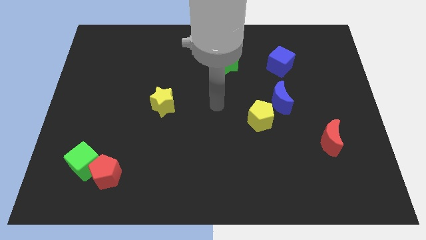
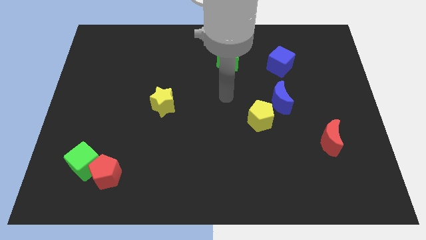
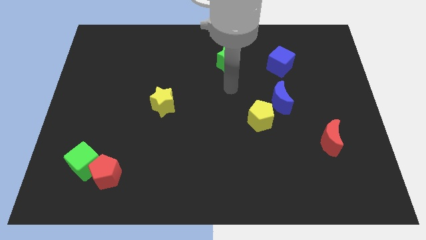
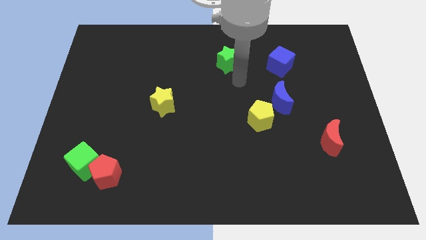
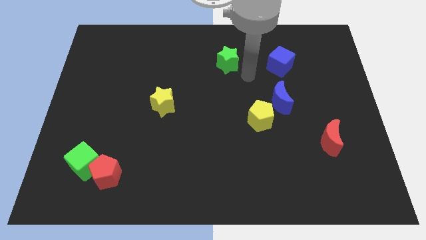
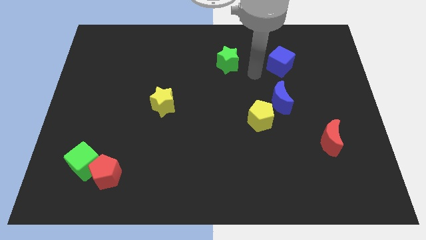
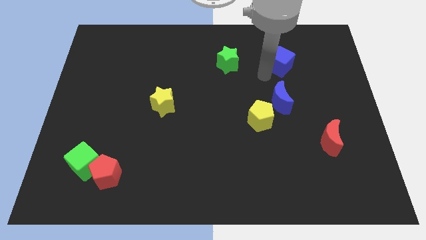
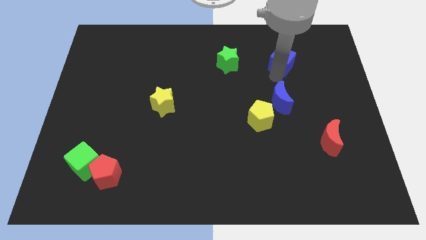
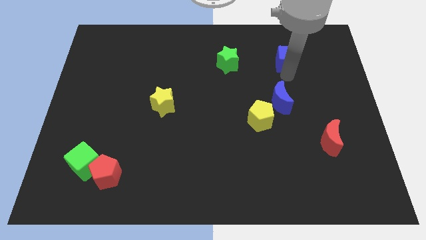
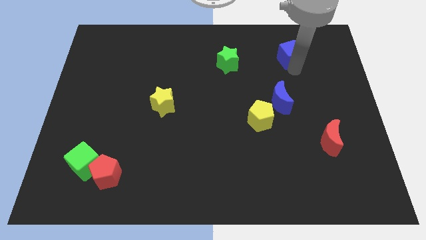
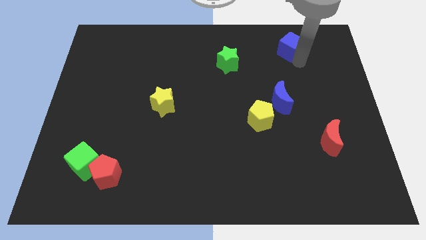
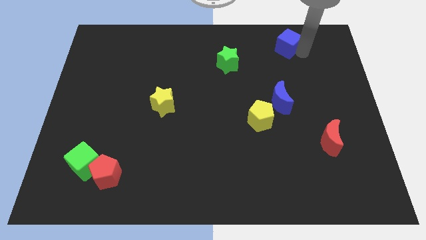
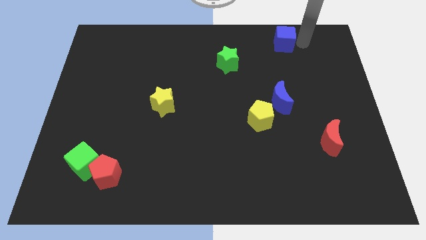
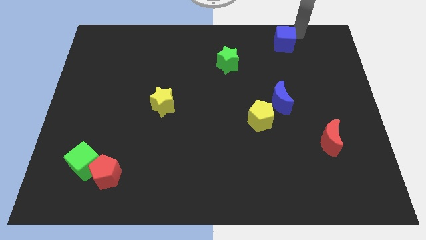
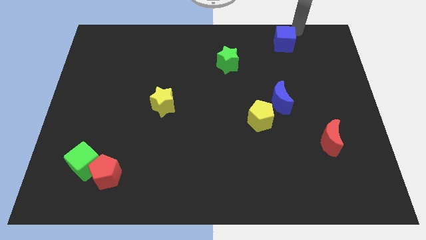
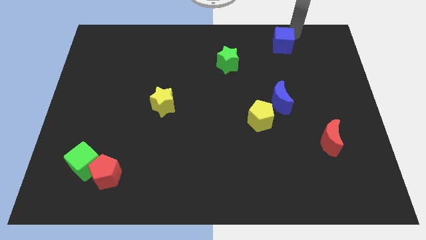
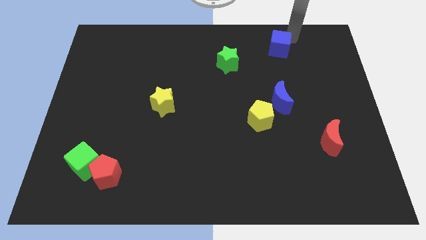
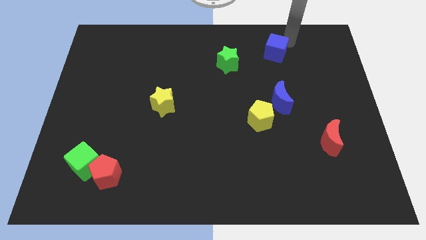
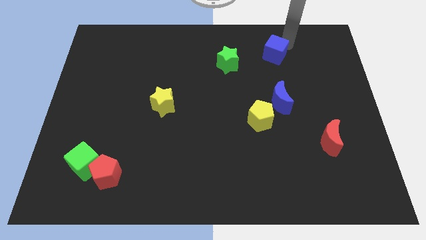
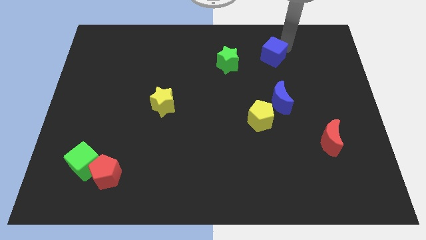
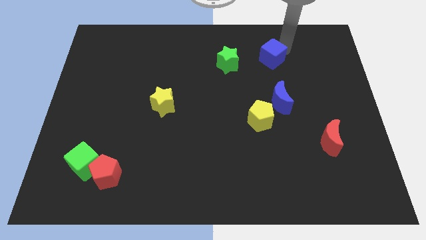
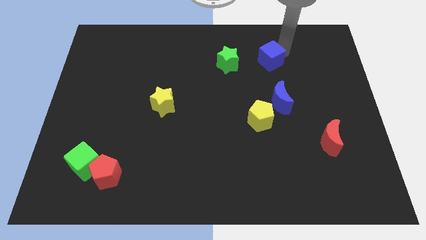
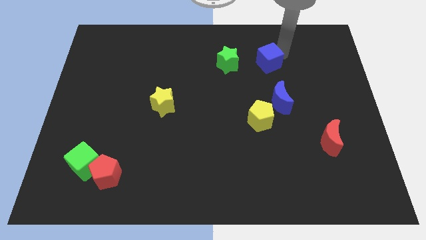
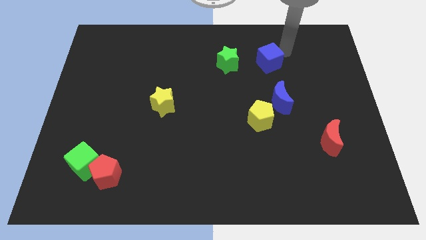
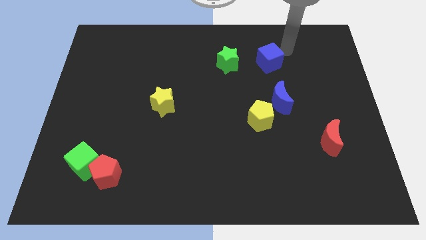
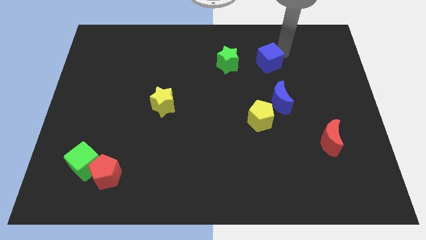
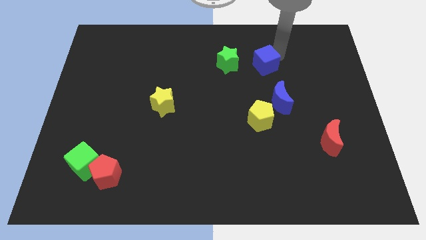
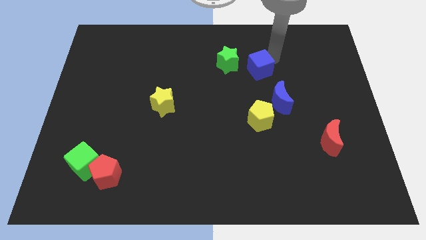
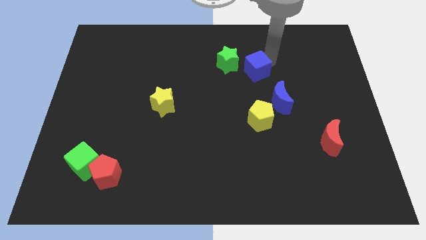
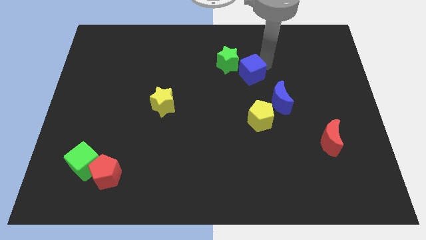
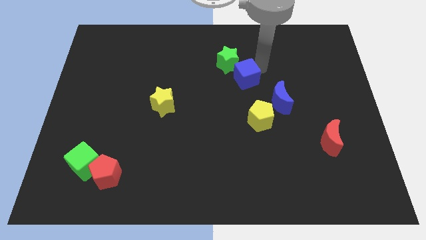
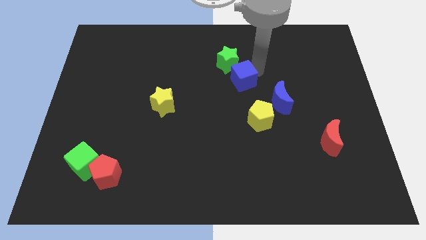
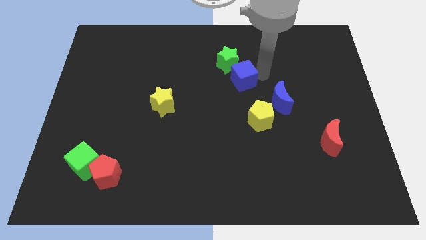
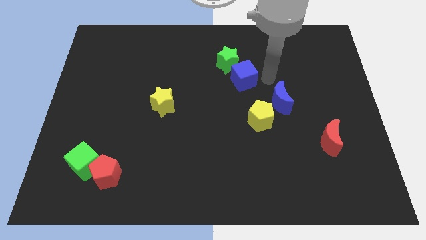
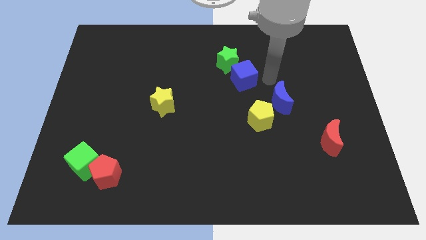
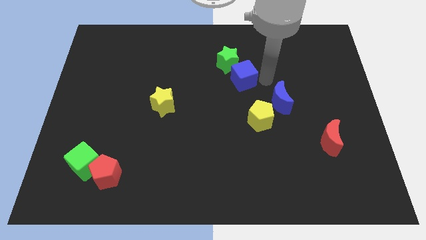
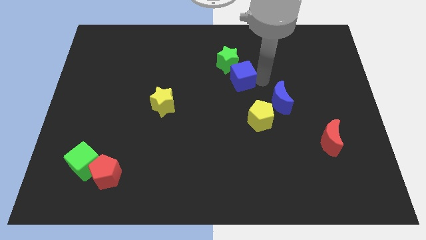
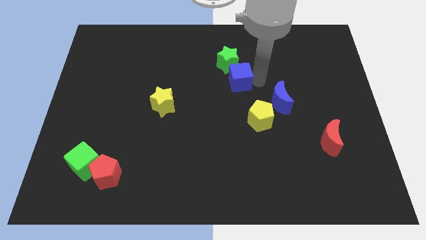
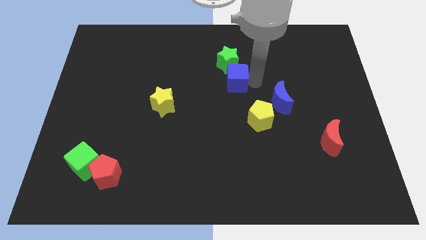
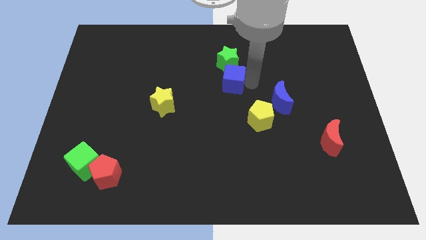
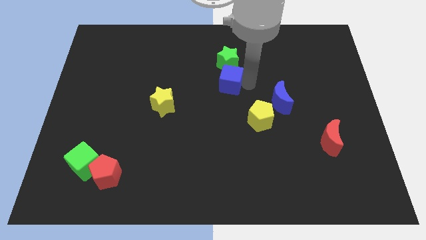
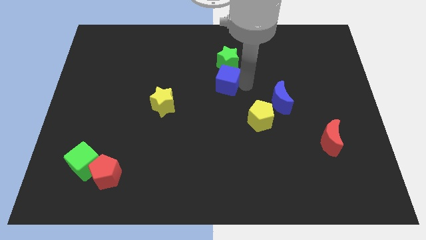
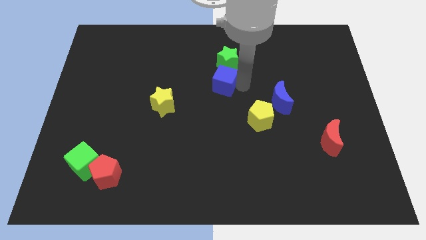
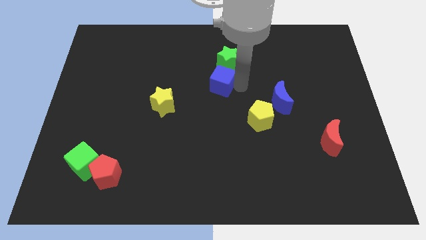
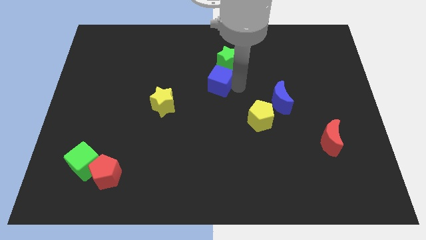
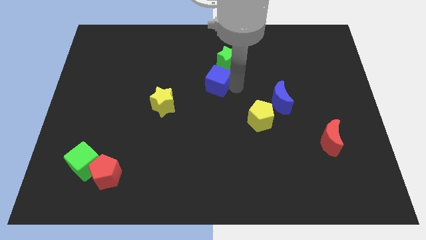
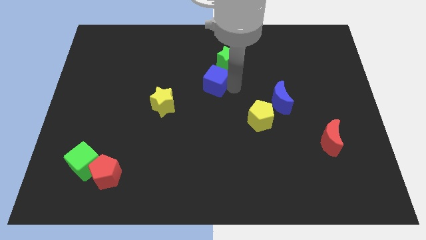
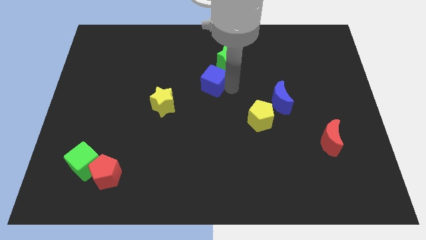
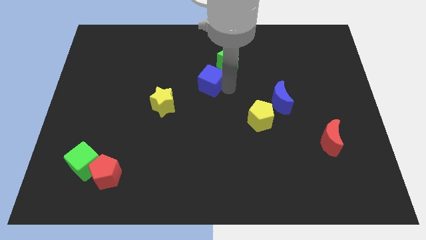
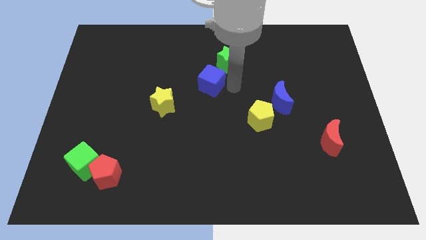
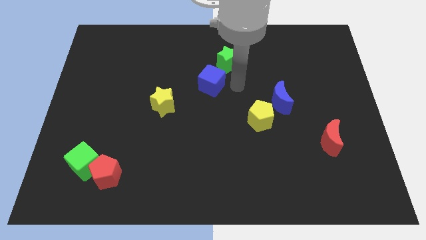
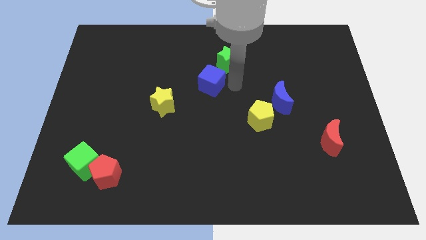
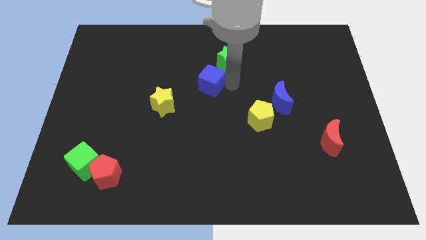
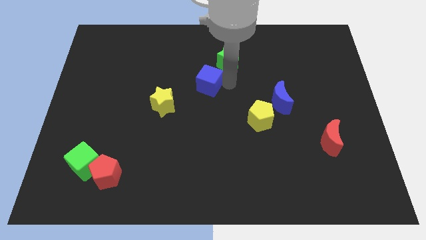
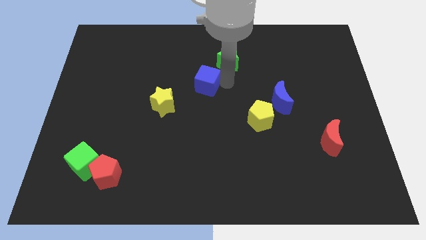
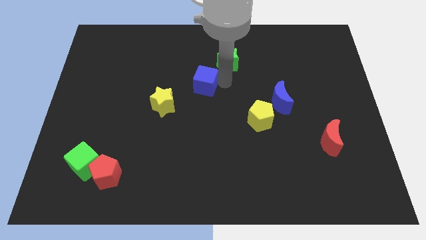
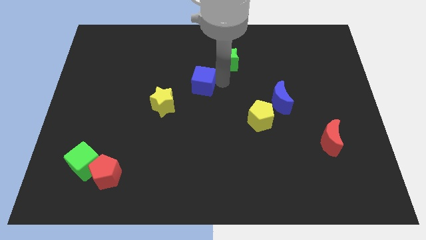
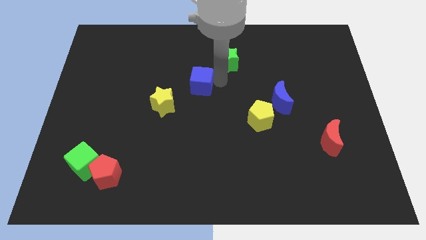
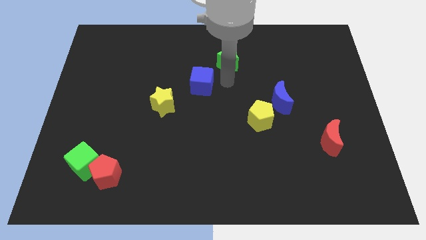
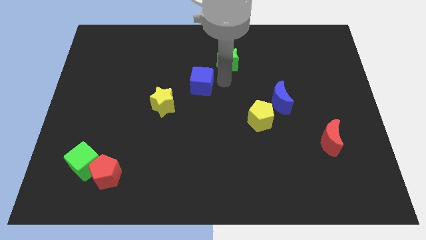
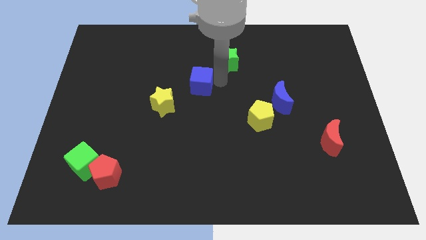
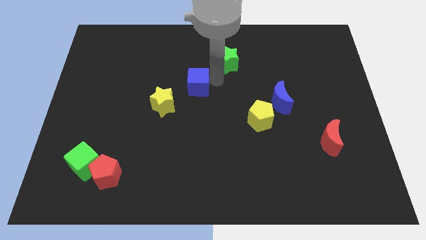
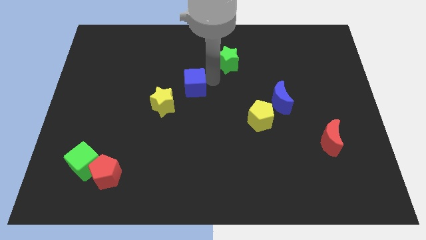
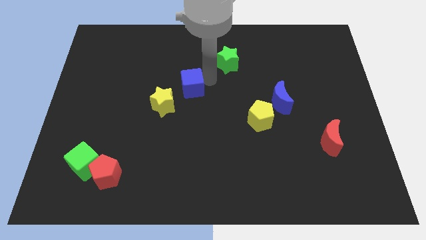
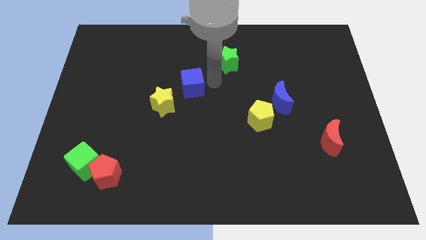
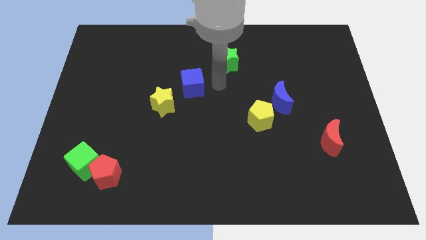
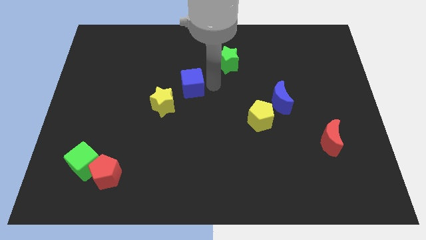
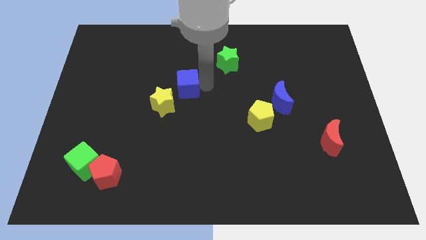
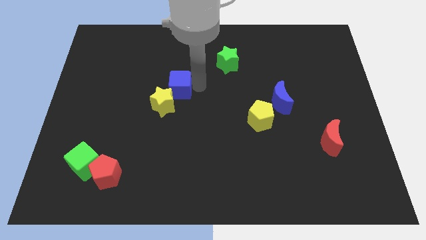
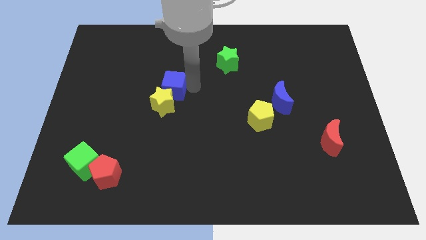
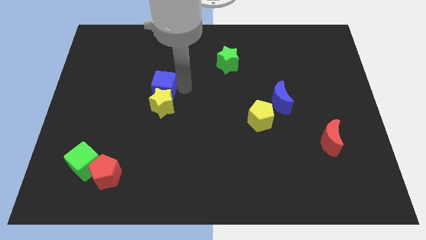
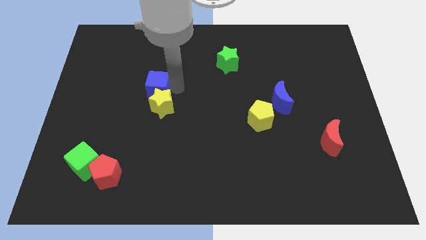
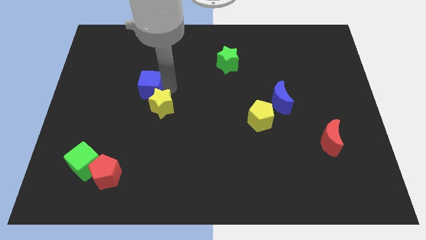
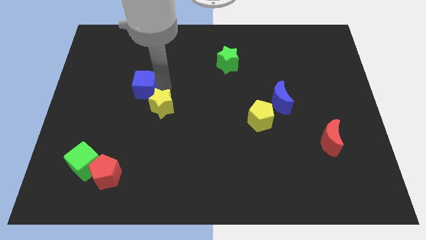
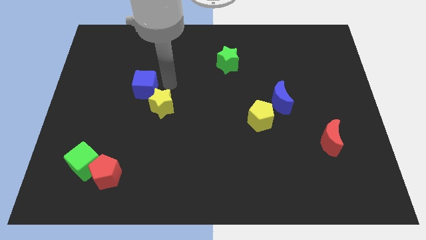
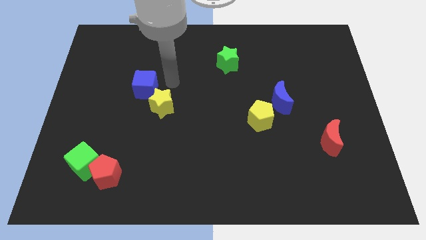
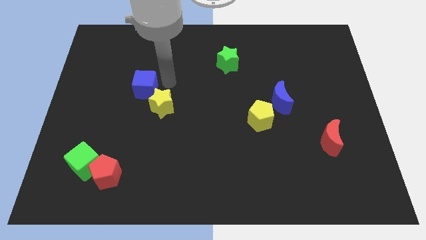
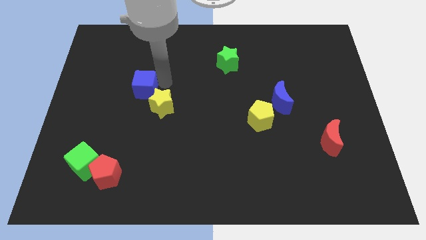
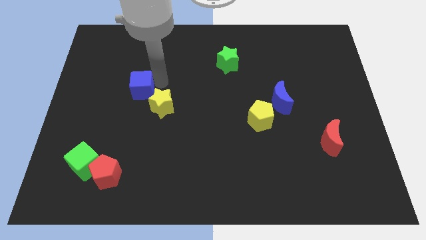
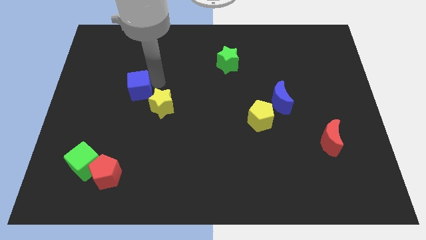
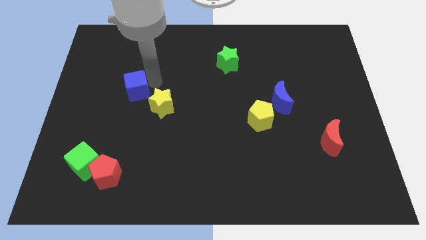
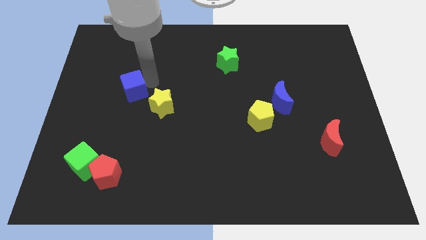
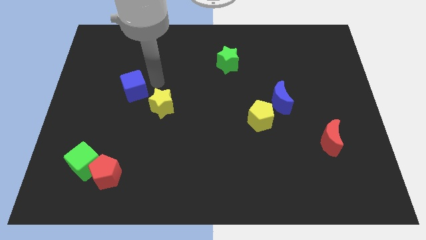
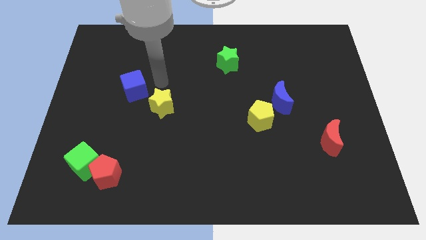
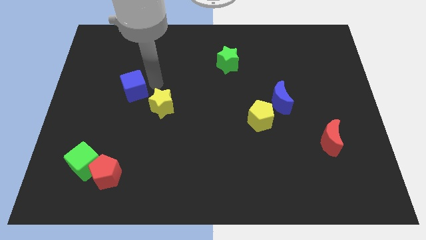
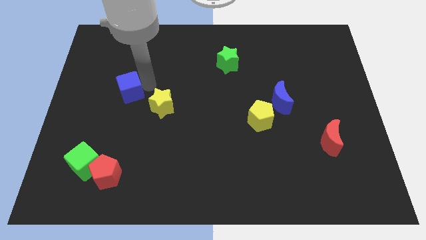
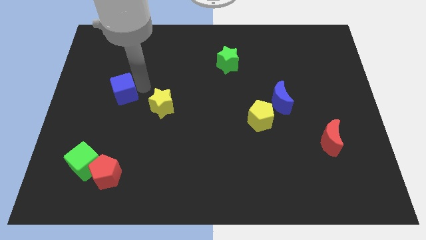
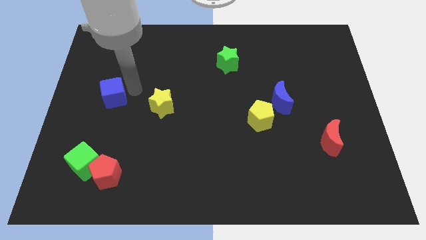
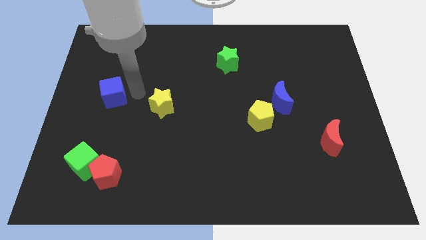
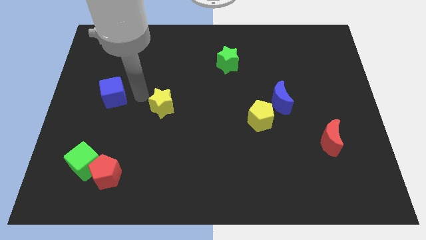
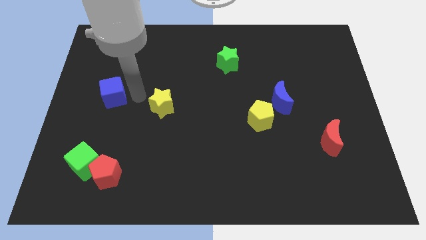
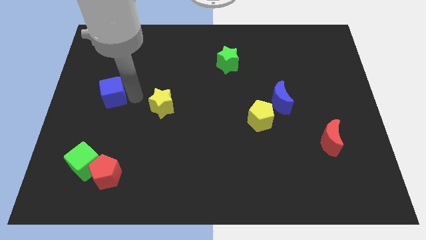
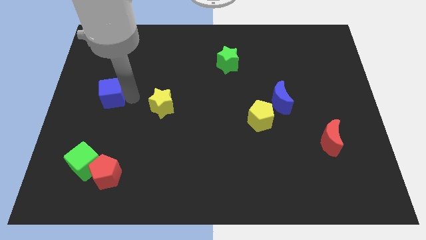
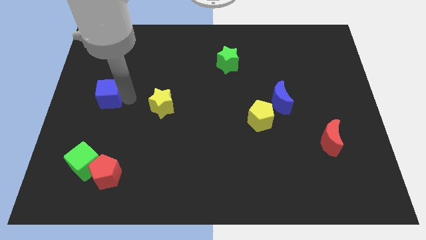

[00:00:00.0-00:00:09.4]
move the blue cube to the left side of the board
